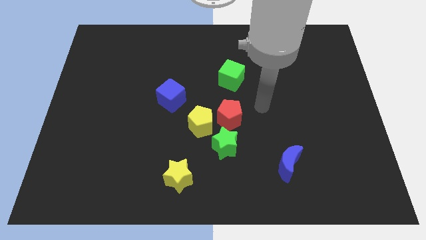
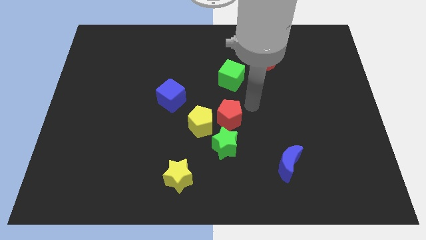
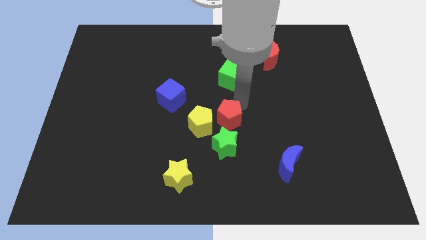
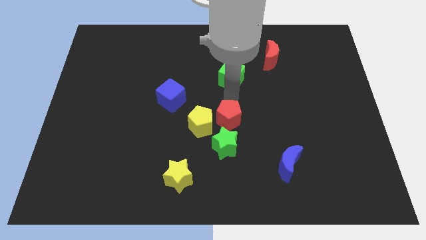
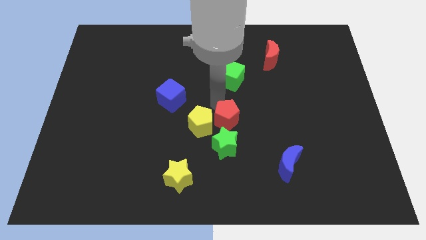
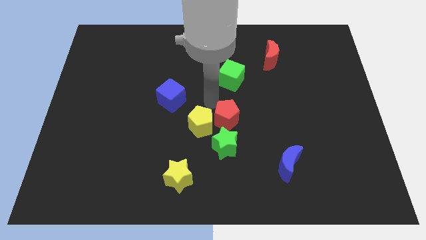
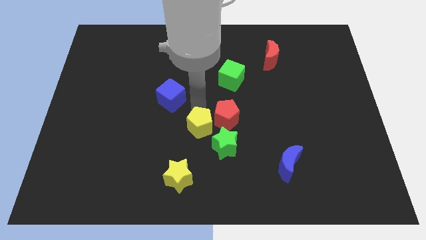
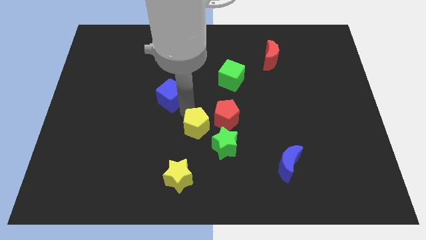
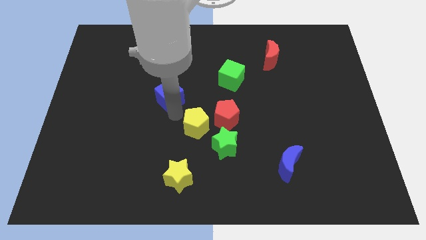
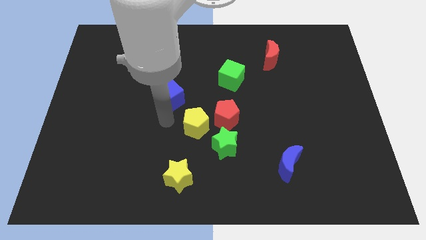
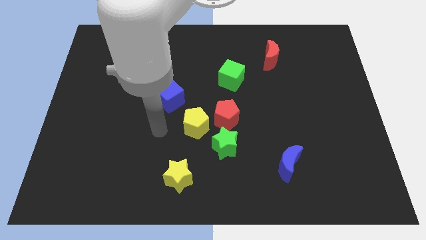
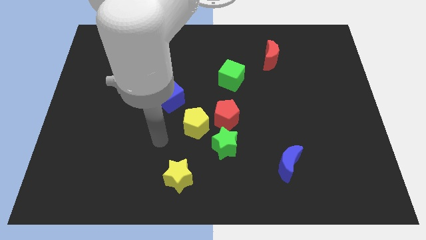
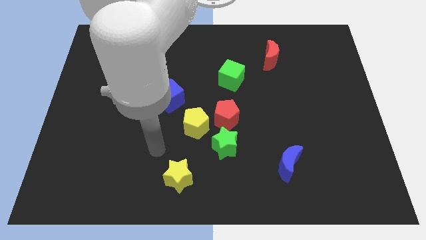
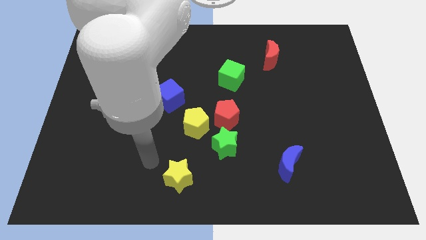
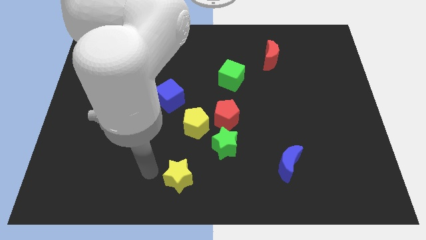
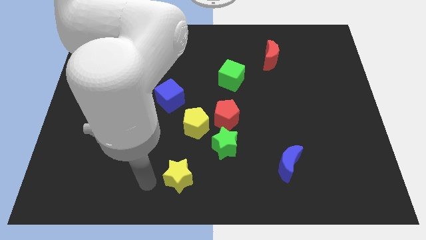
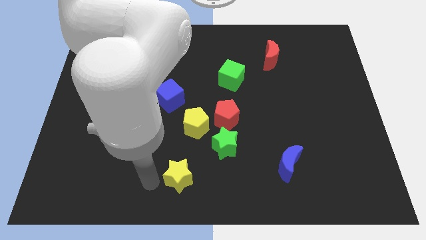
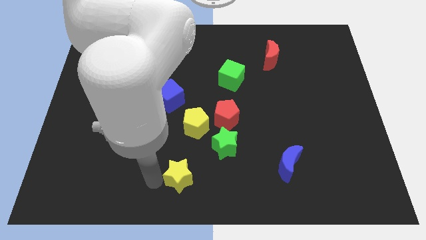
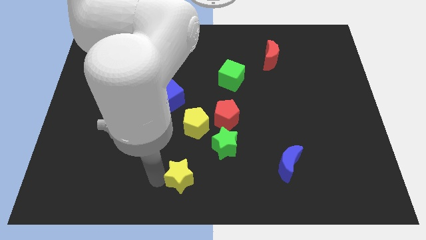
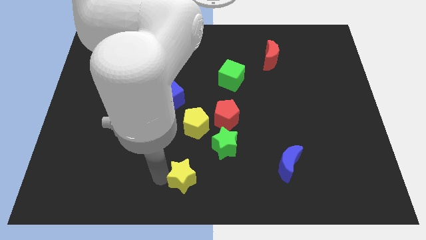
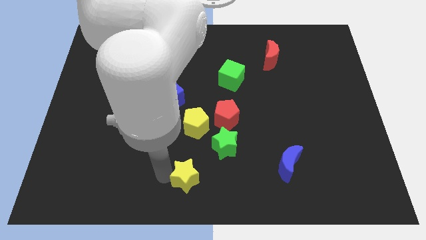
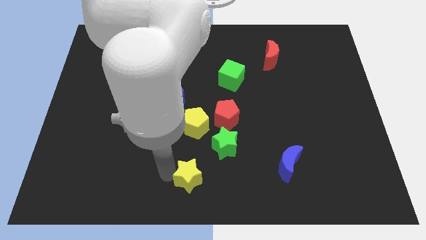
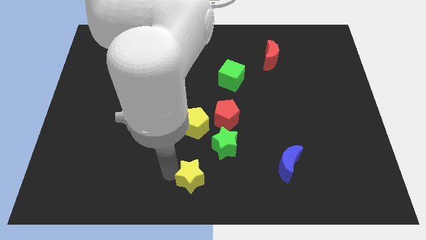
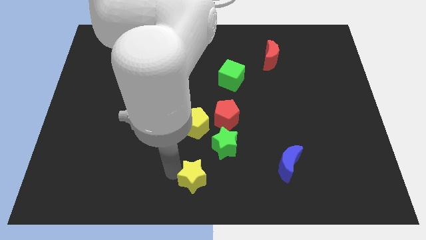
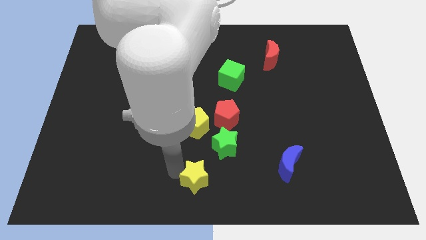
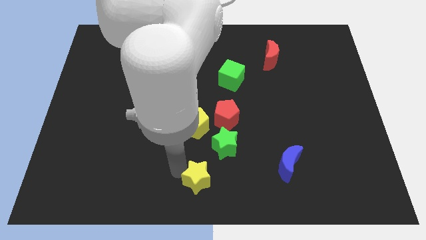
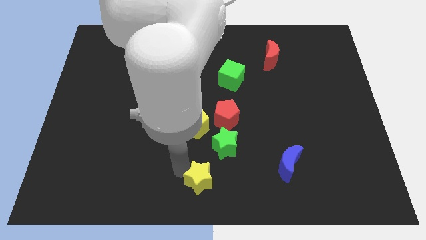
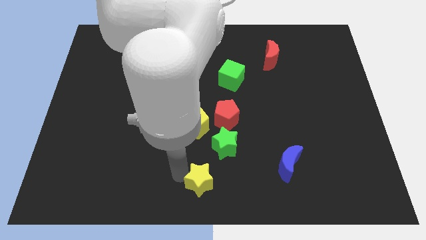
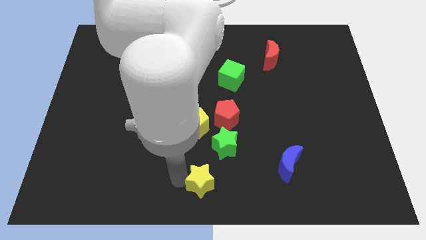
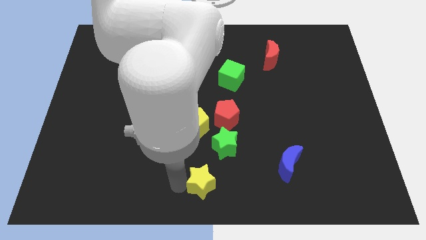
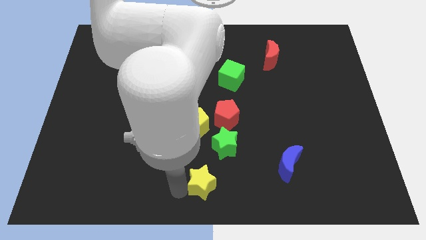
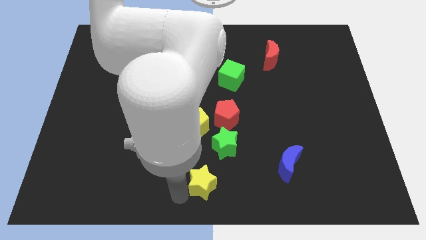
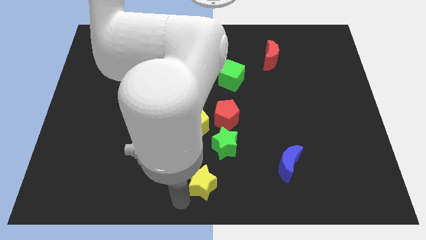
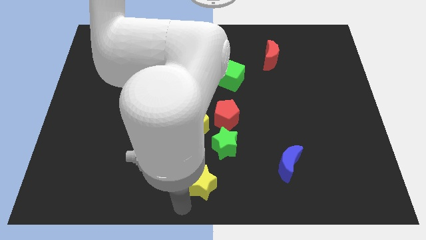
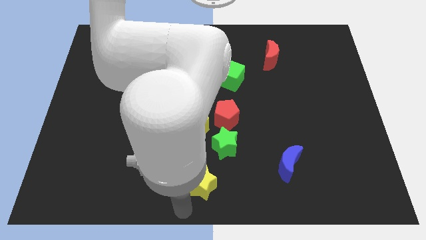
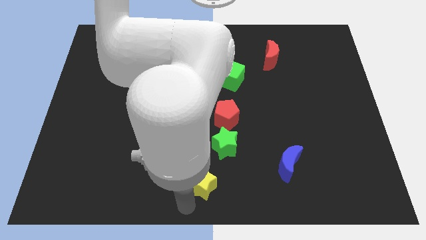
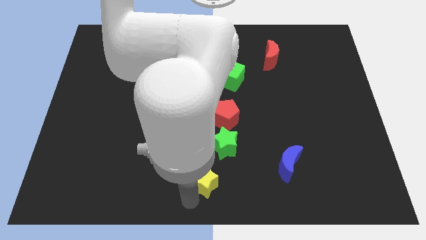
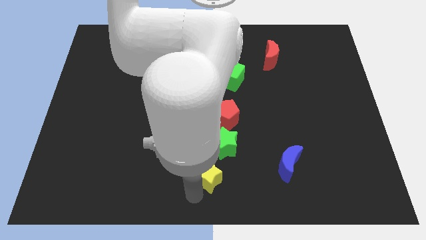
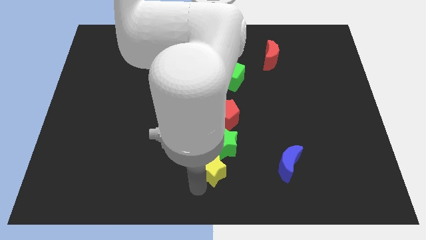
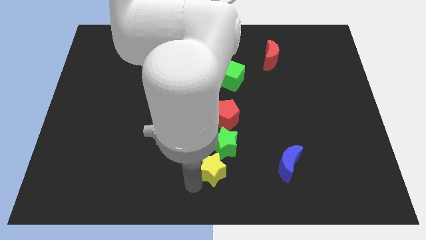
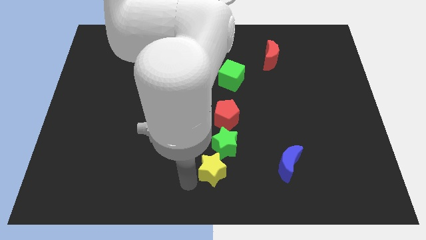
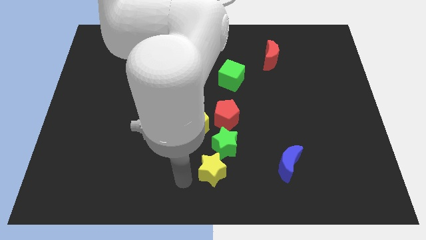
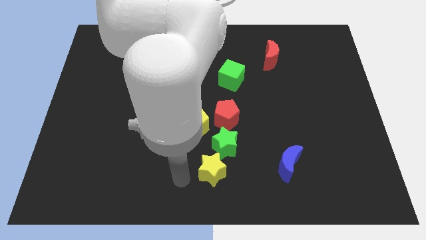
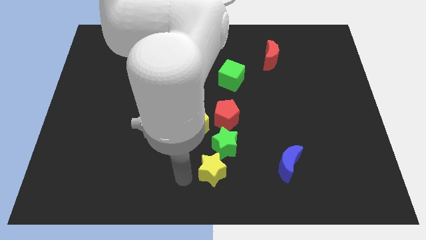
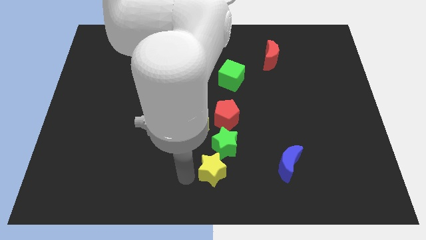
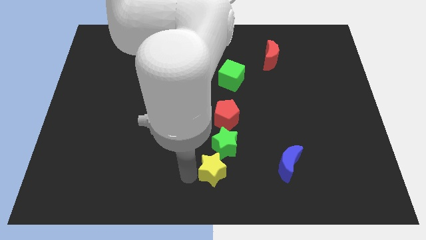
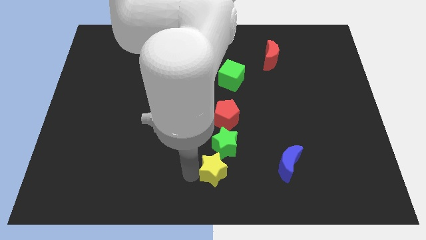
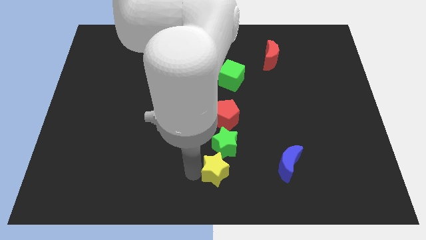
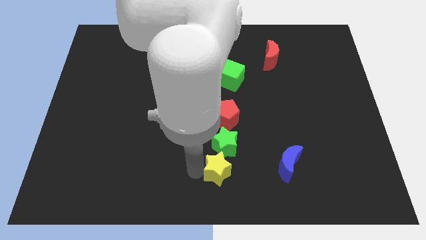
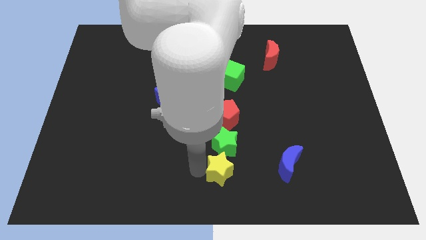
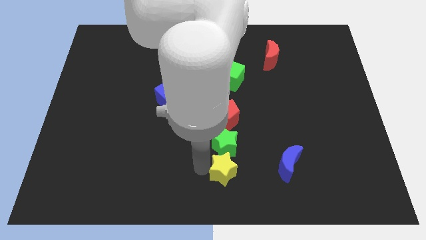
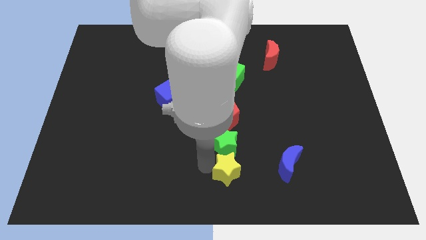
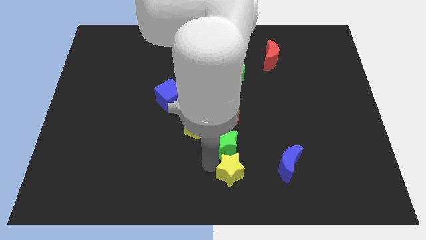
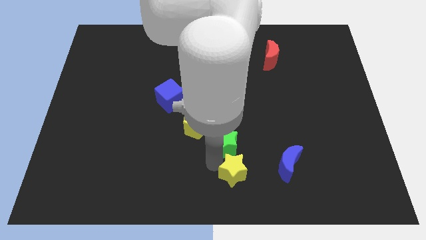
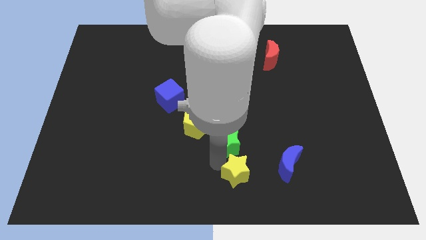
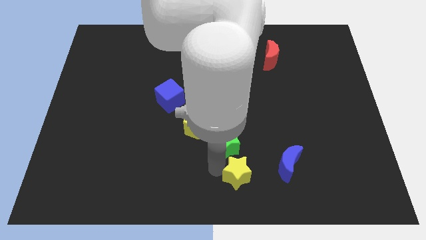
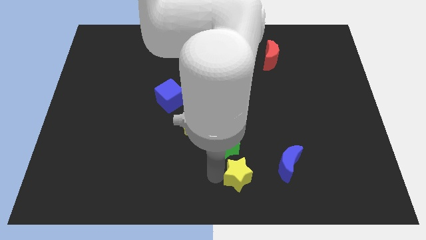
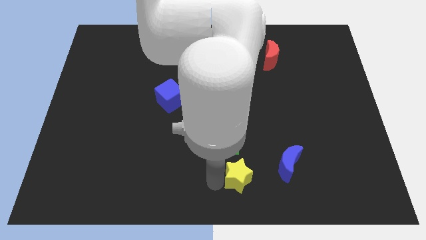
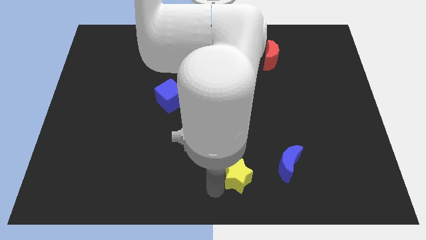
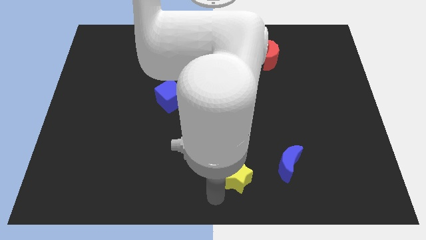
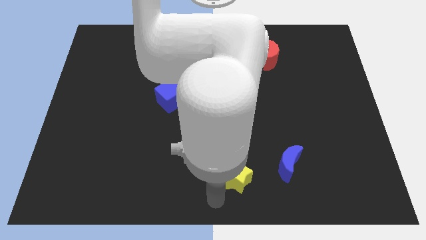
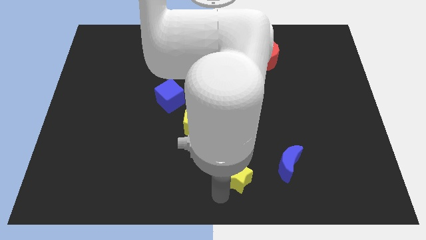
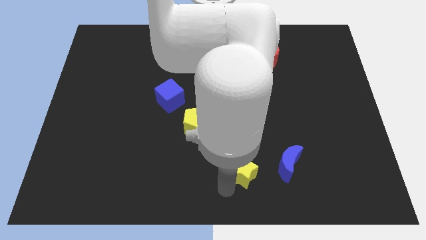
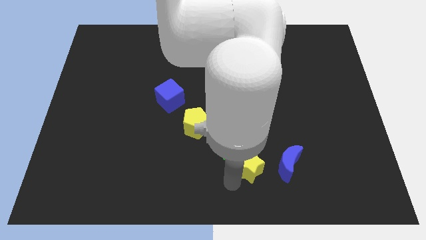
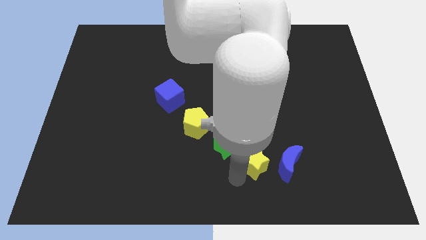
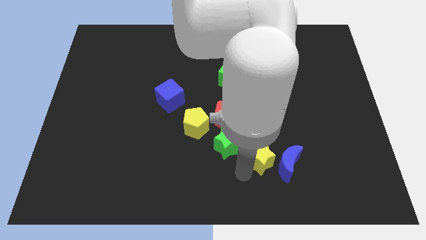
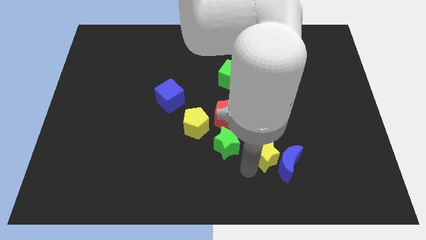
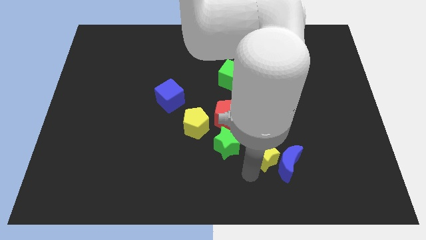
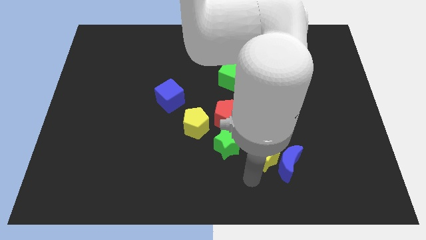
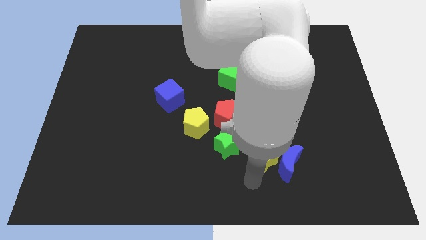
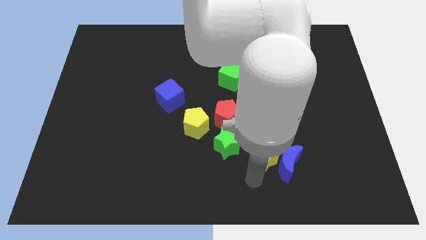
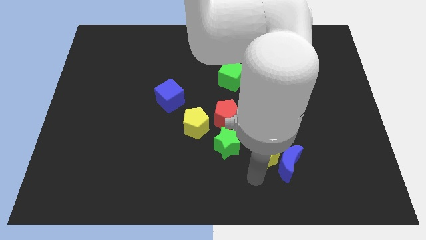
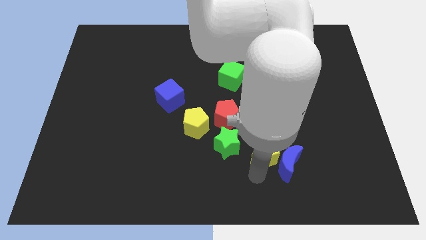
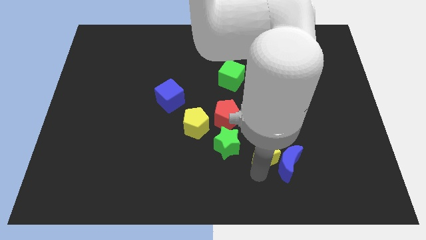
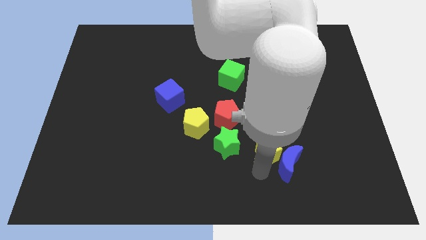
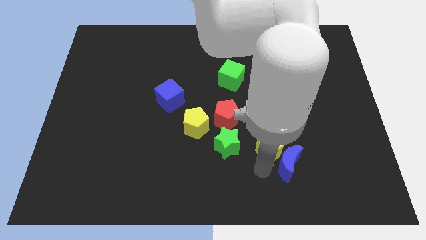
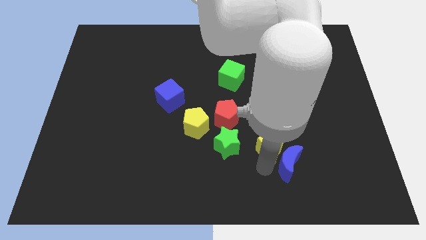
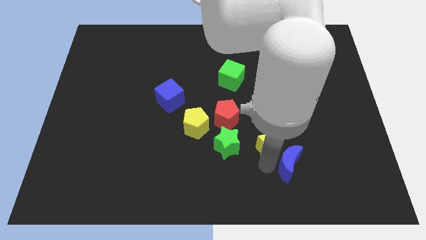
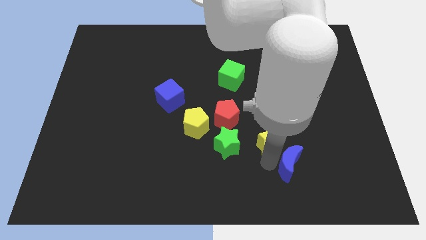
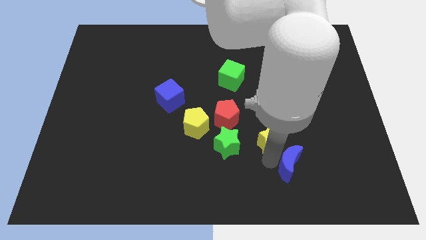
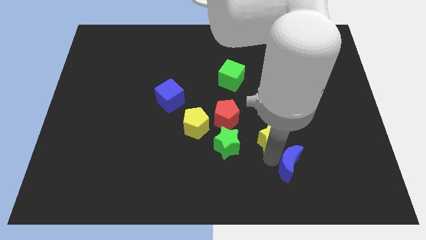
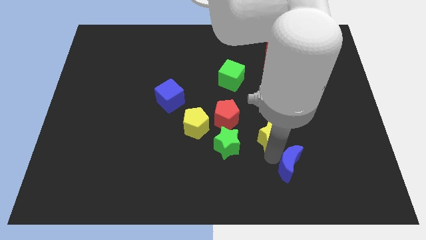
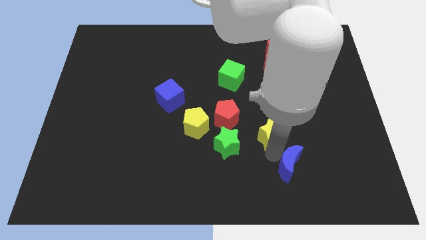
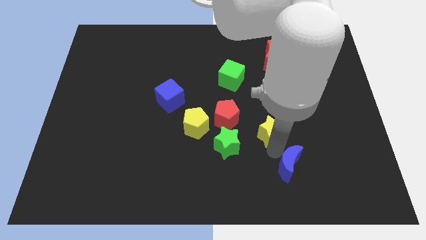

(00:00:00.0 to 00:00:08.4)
move the yellow star diagonally upwards and to the right
